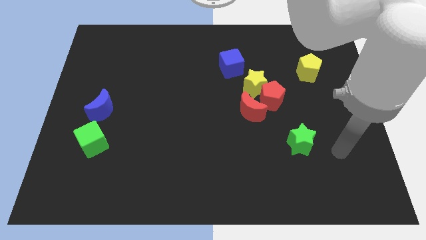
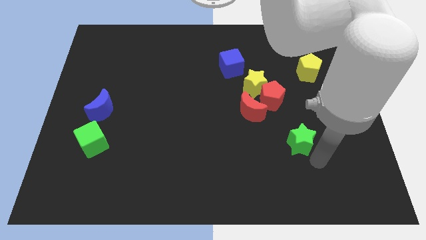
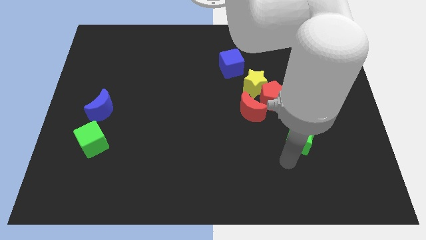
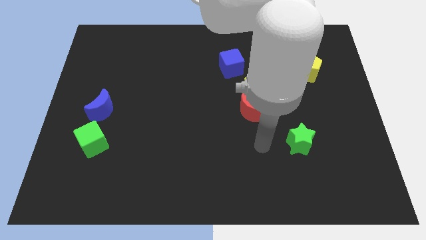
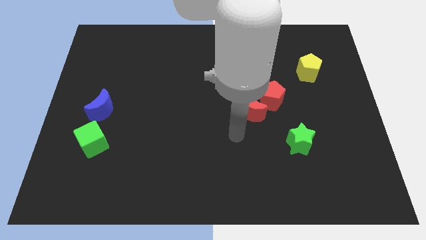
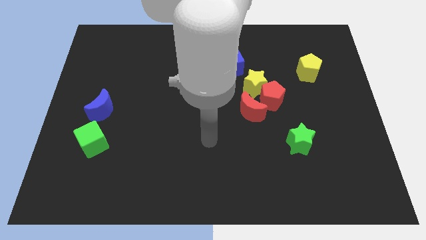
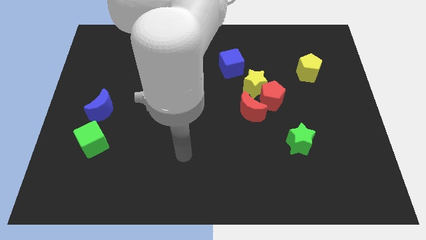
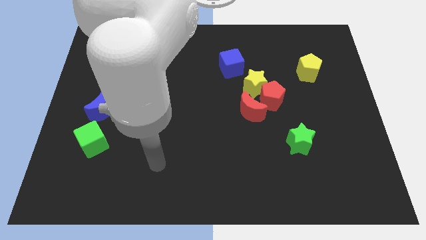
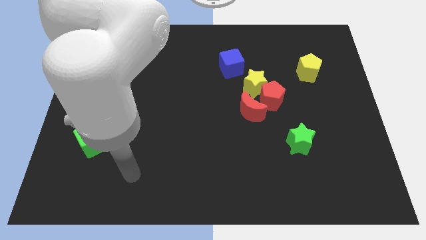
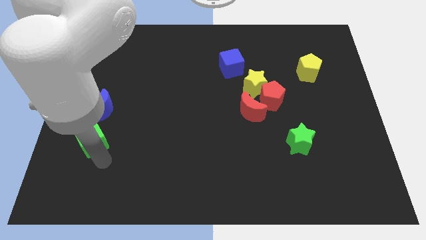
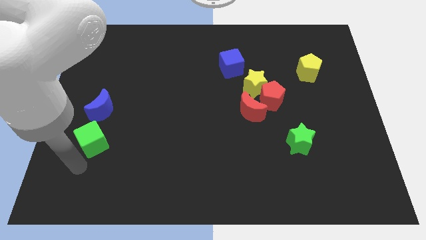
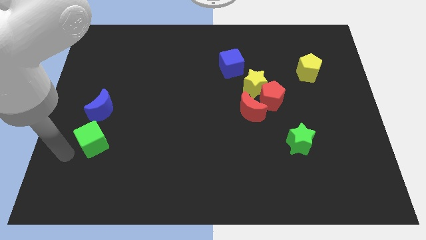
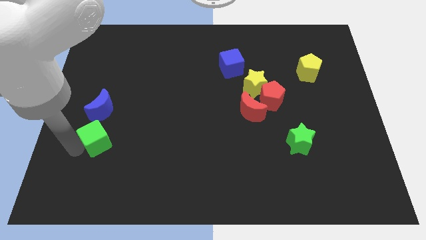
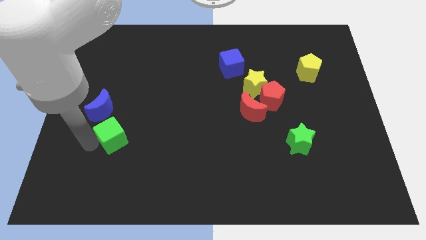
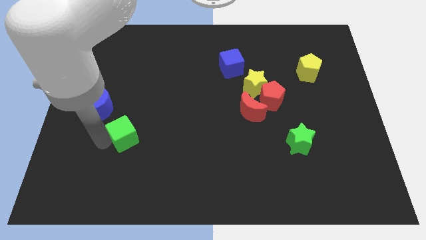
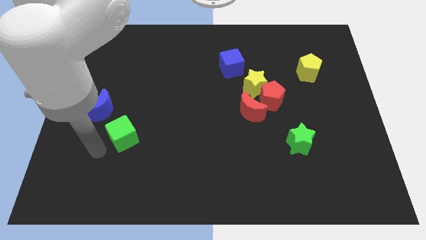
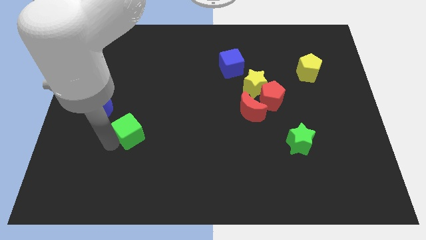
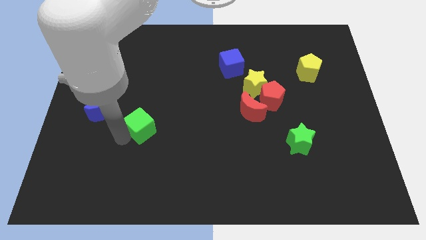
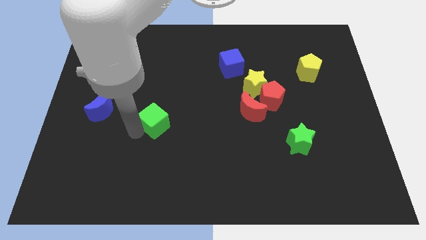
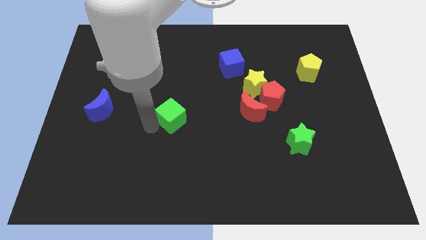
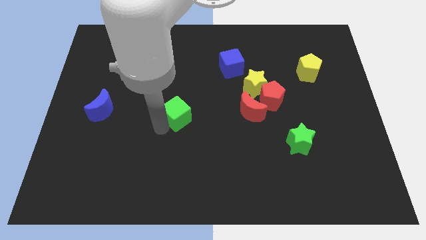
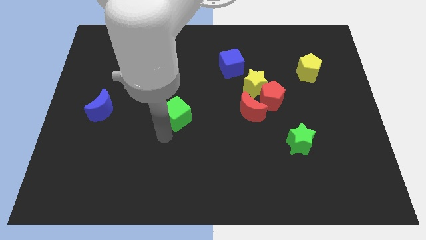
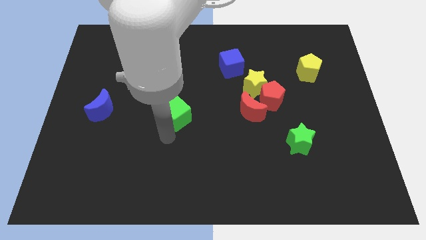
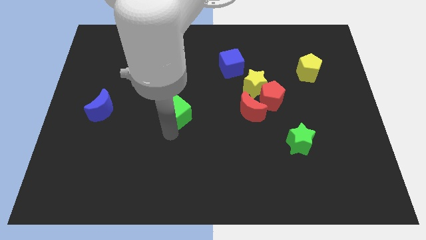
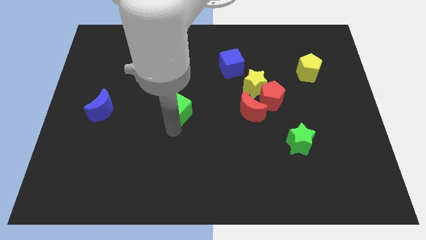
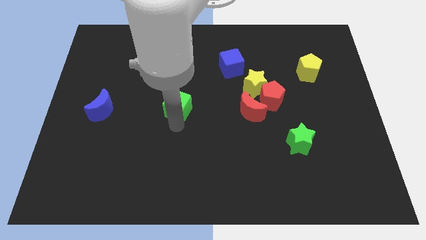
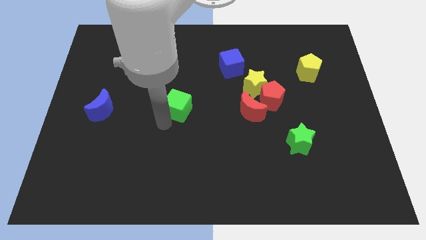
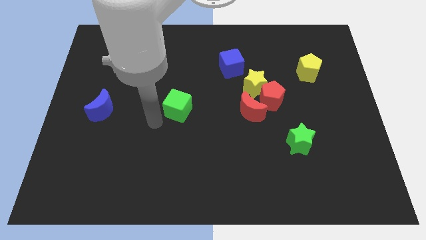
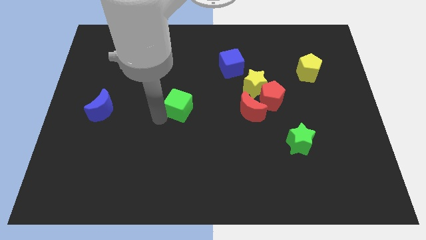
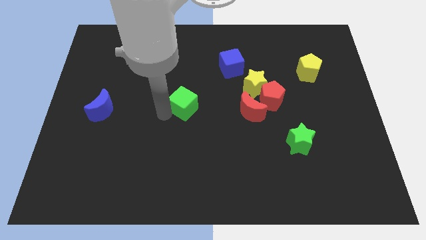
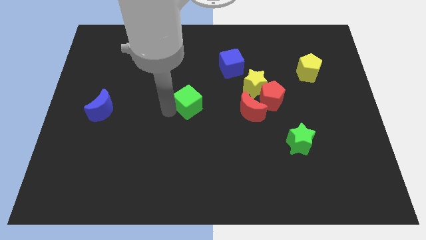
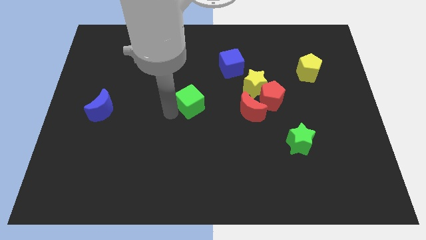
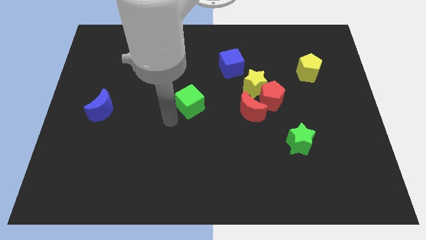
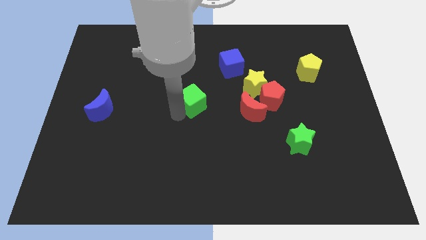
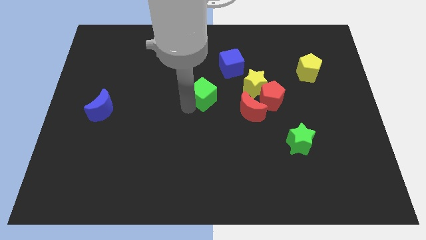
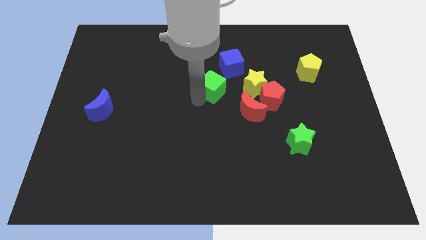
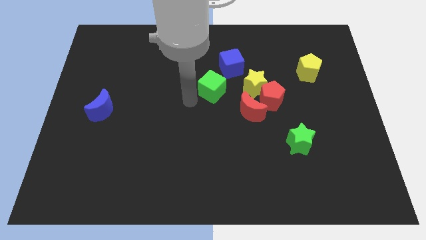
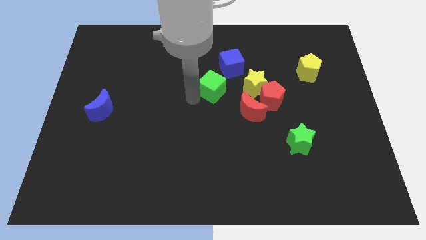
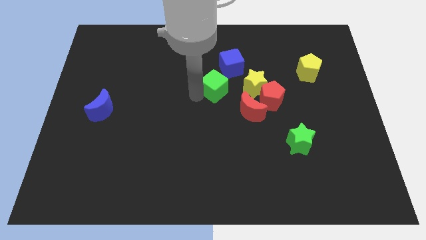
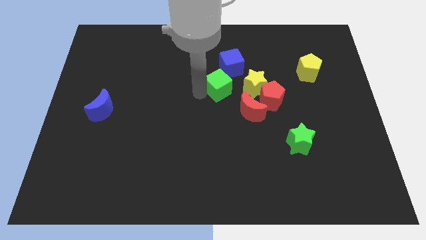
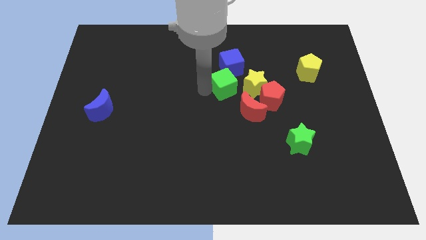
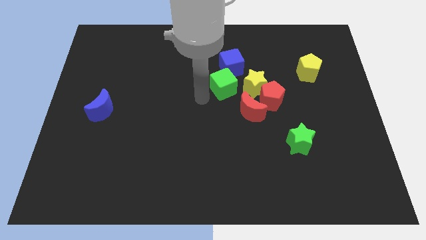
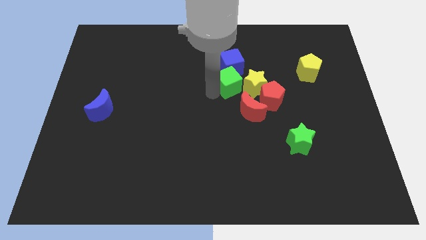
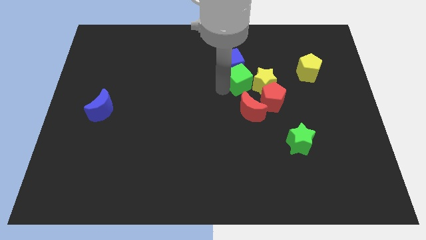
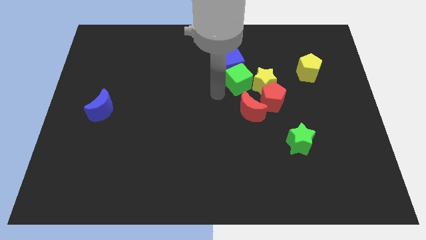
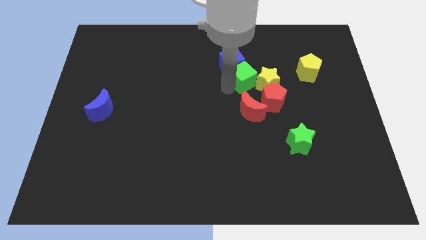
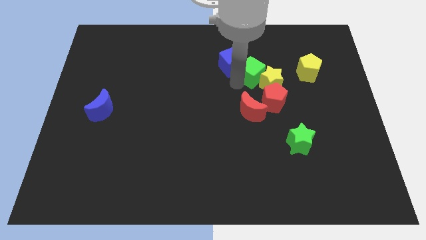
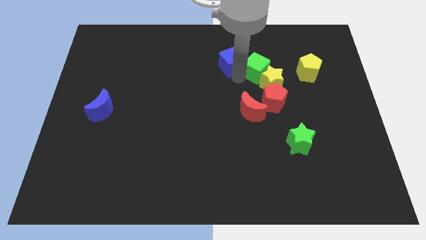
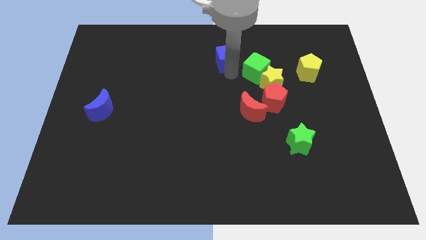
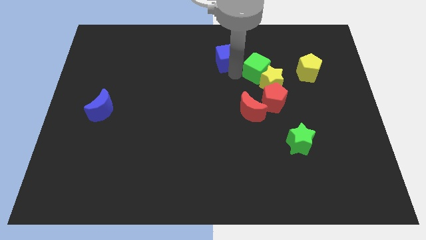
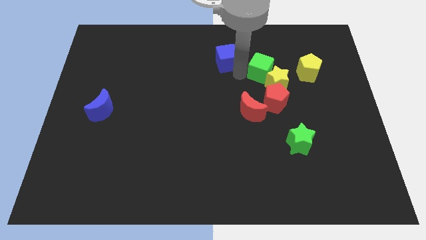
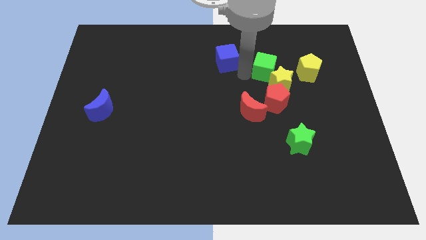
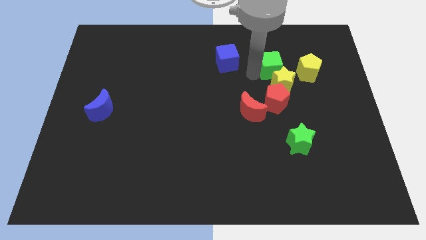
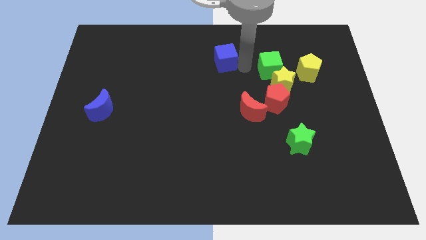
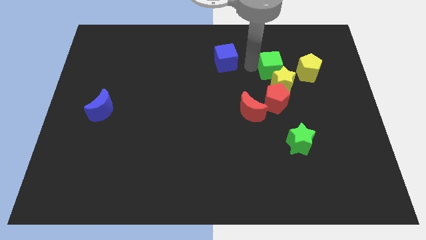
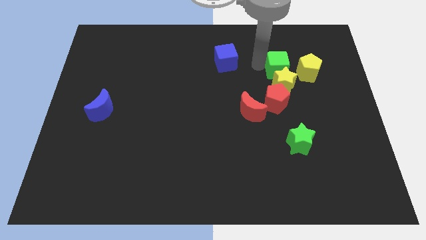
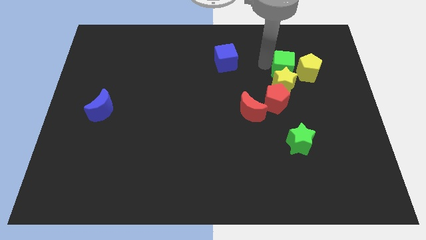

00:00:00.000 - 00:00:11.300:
move the green cube towards the yellow pentagon
